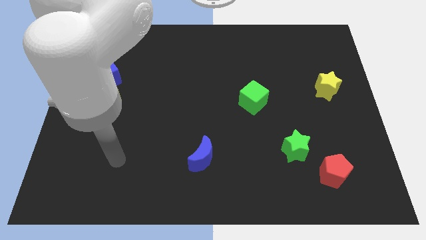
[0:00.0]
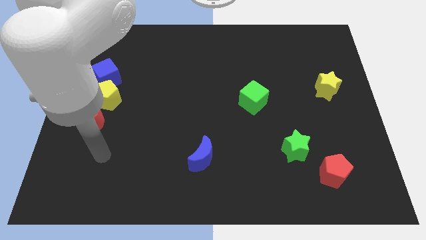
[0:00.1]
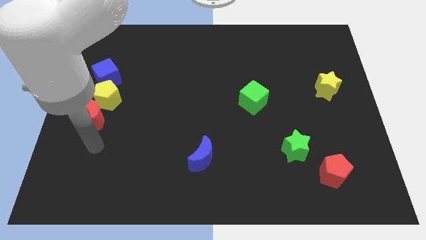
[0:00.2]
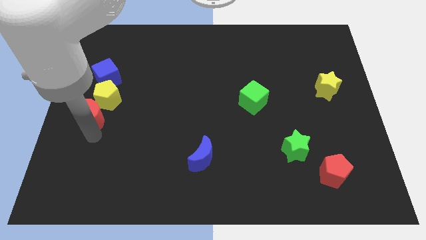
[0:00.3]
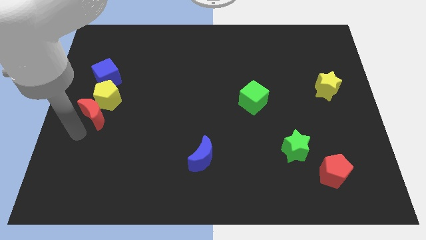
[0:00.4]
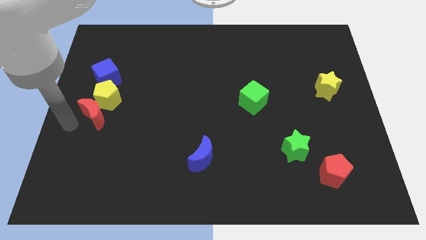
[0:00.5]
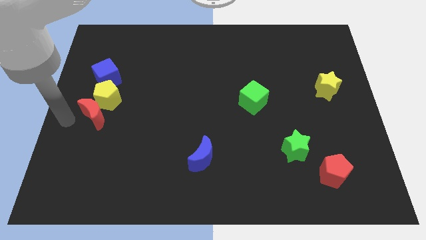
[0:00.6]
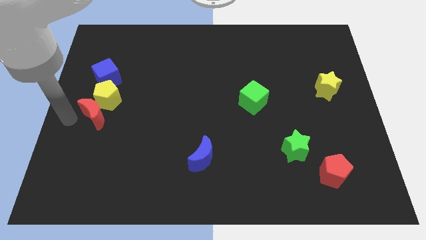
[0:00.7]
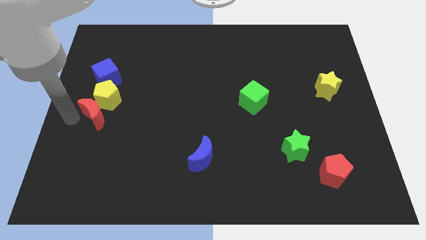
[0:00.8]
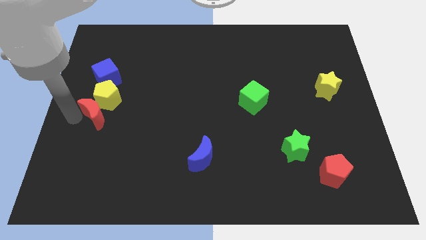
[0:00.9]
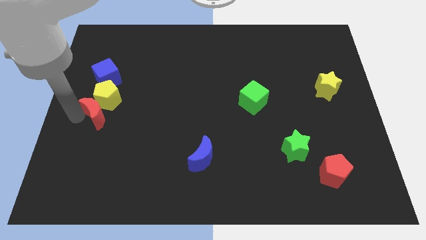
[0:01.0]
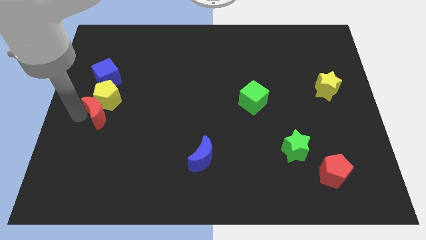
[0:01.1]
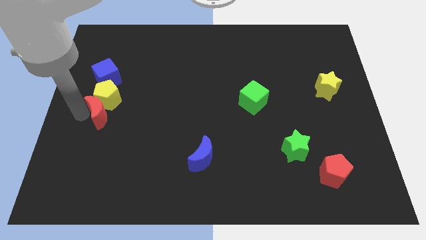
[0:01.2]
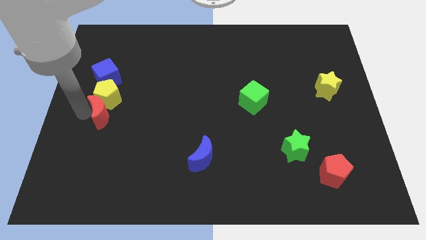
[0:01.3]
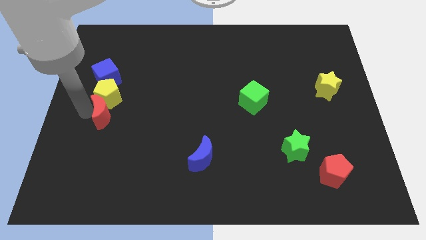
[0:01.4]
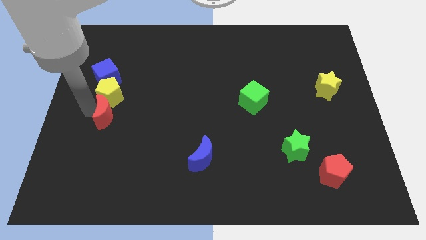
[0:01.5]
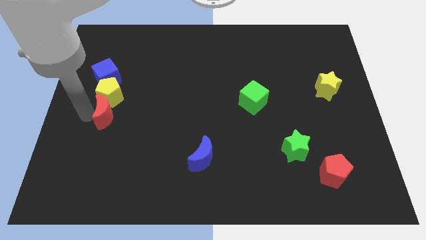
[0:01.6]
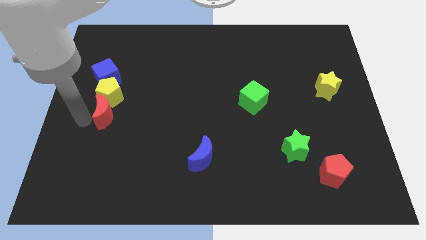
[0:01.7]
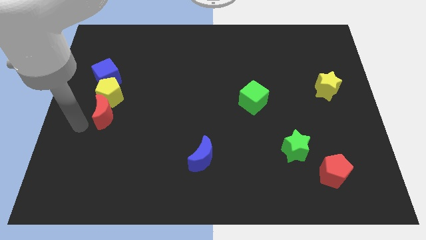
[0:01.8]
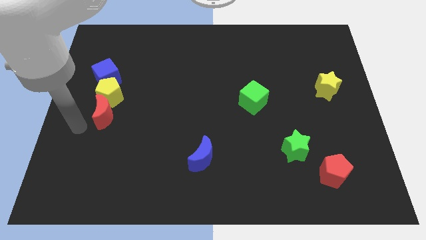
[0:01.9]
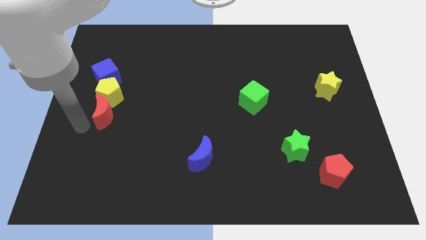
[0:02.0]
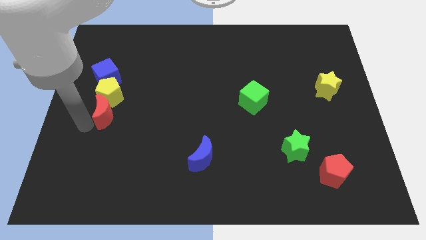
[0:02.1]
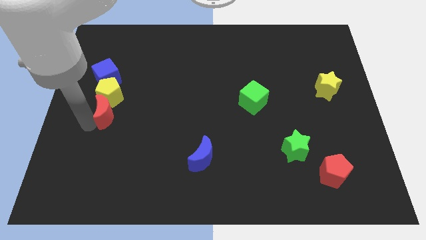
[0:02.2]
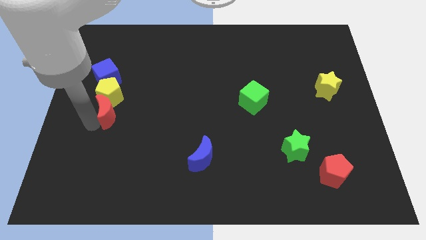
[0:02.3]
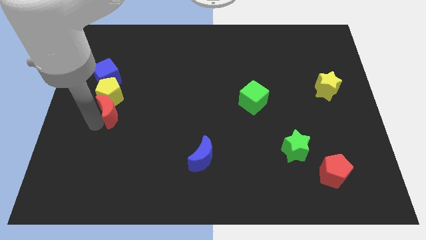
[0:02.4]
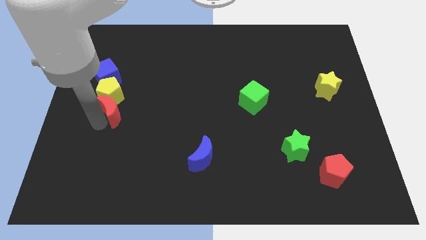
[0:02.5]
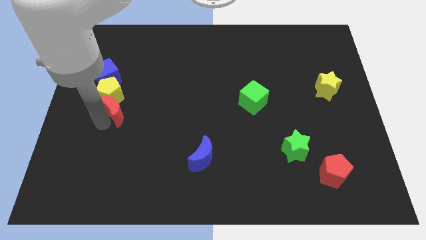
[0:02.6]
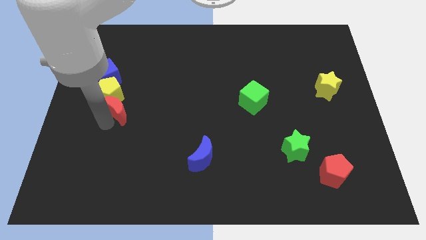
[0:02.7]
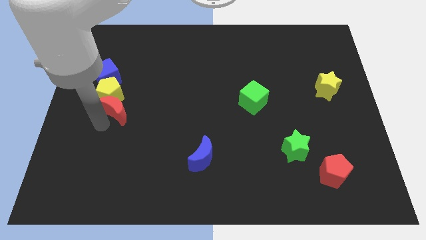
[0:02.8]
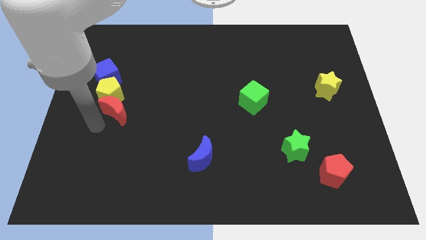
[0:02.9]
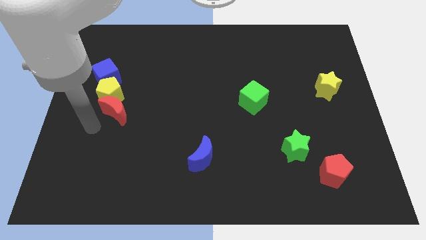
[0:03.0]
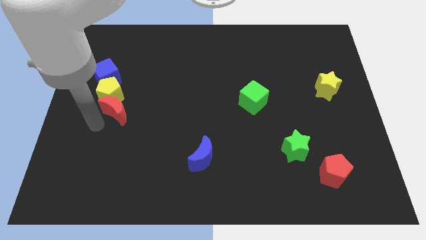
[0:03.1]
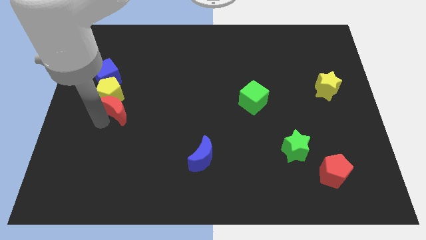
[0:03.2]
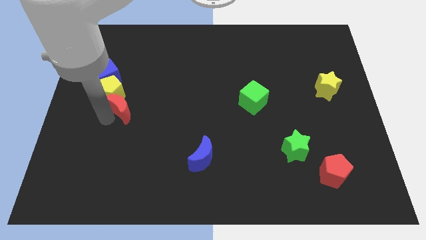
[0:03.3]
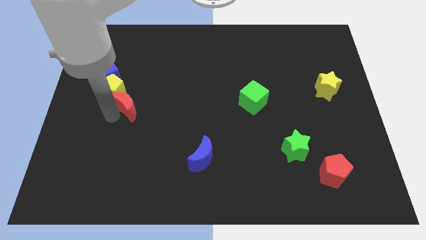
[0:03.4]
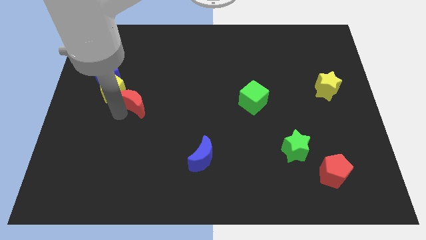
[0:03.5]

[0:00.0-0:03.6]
slightly slide the red moon diagonally upwards and to the right

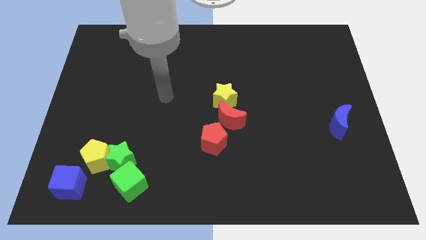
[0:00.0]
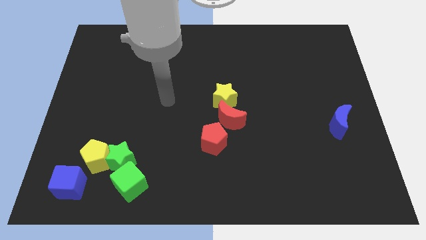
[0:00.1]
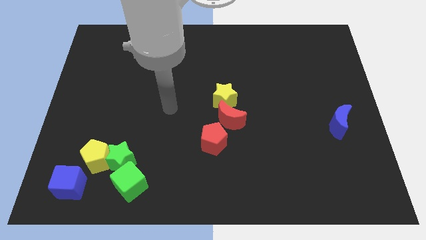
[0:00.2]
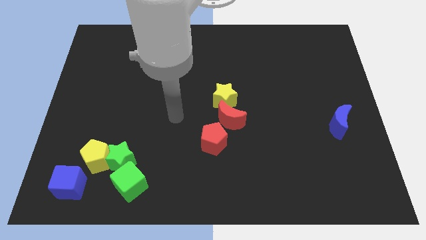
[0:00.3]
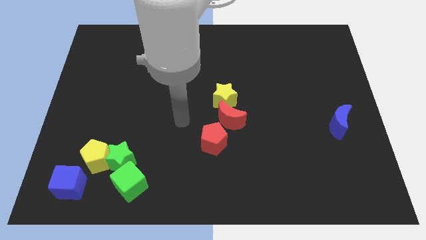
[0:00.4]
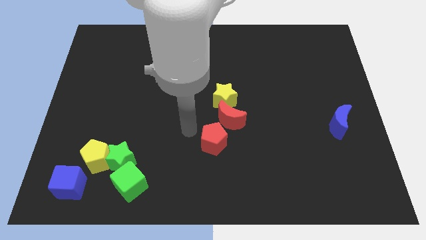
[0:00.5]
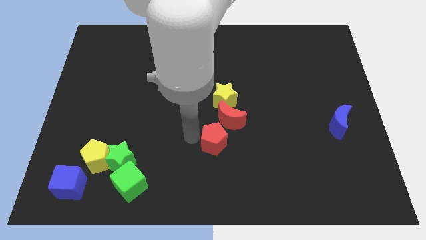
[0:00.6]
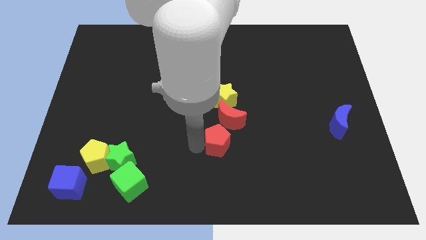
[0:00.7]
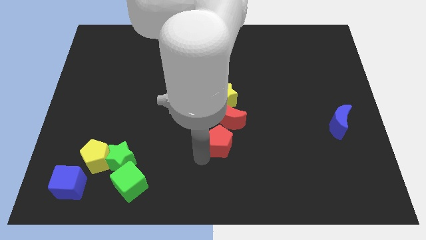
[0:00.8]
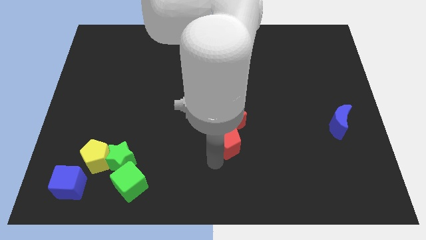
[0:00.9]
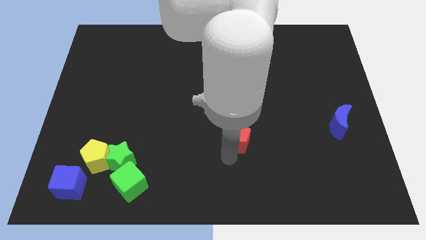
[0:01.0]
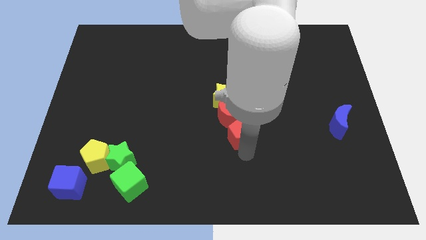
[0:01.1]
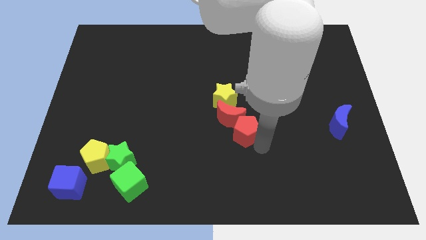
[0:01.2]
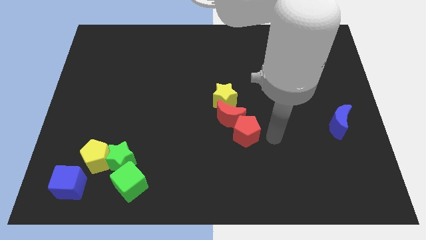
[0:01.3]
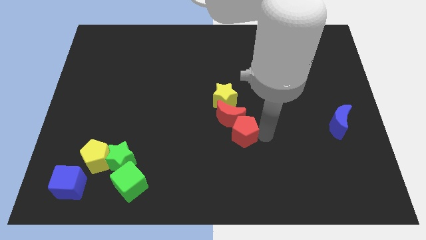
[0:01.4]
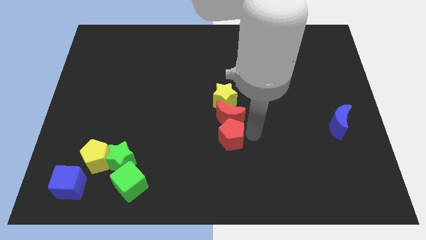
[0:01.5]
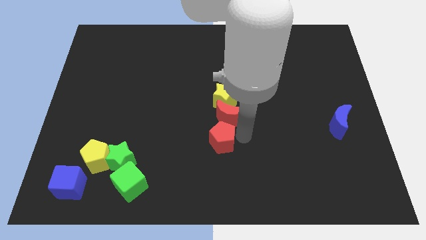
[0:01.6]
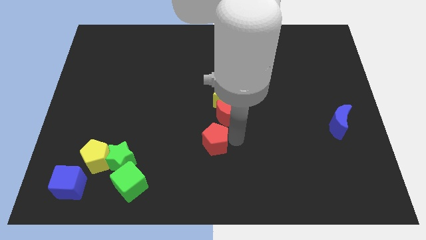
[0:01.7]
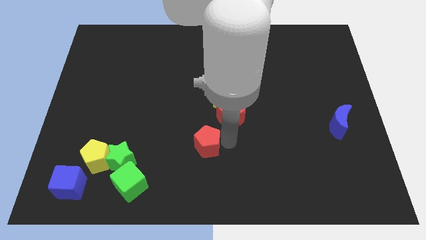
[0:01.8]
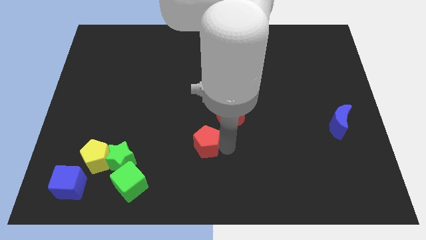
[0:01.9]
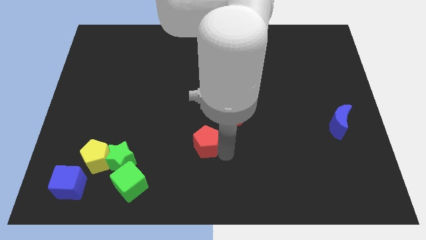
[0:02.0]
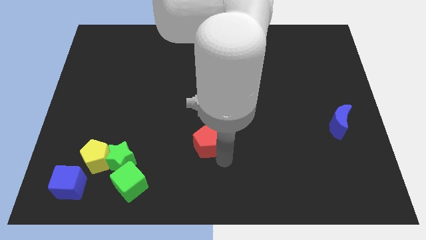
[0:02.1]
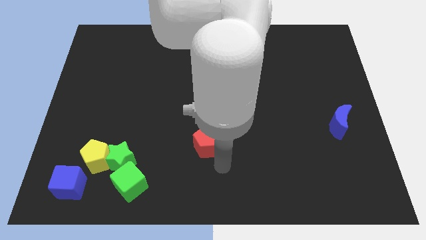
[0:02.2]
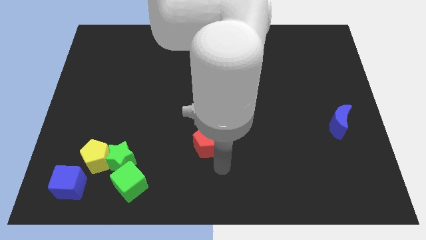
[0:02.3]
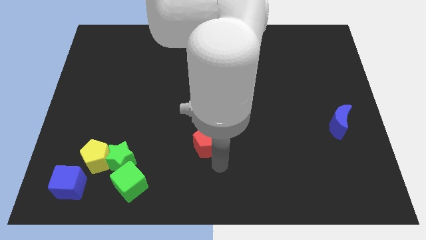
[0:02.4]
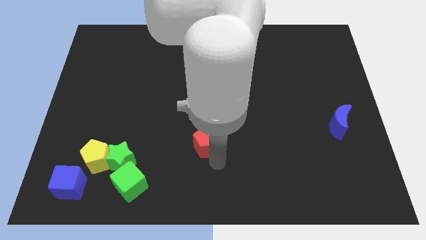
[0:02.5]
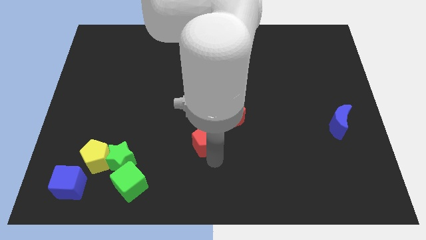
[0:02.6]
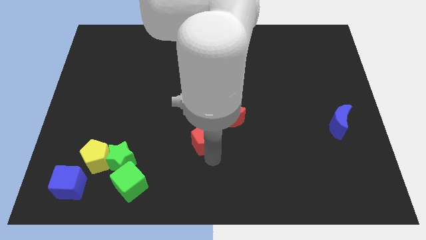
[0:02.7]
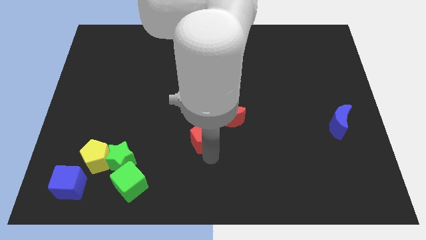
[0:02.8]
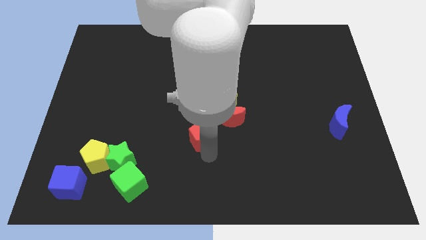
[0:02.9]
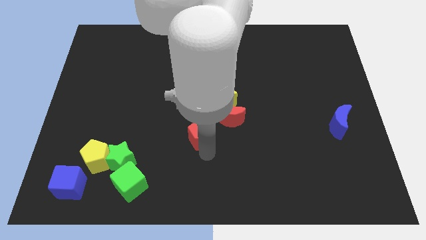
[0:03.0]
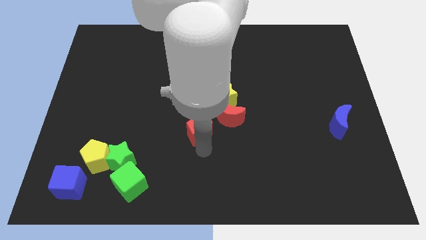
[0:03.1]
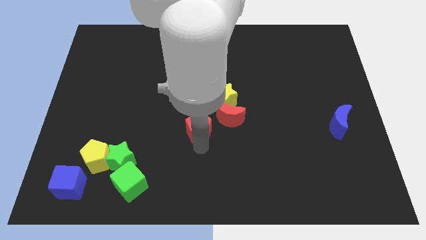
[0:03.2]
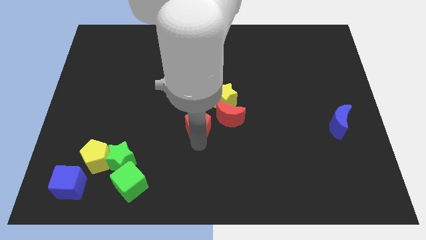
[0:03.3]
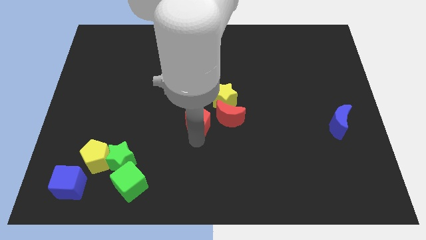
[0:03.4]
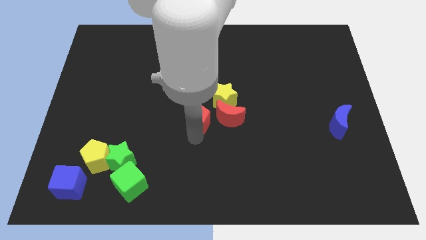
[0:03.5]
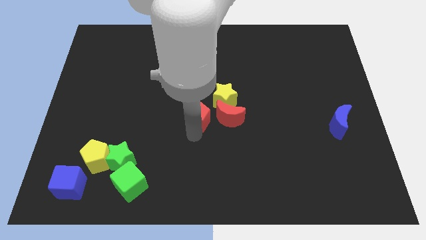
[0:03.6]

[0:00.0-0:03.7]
slide the red pentagon up and to the left somewhat
